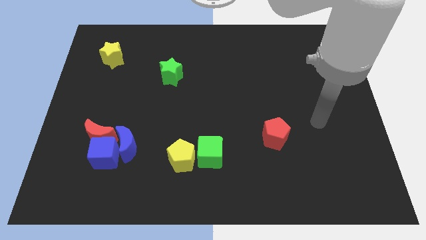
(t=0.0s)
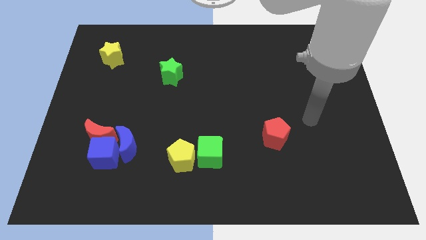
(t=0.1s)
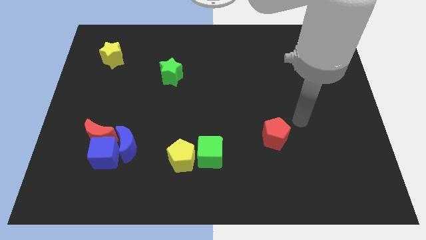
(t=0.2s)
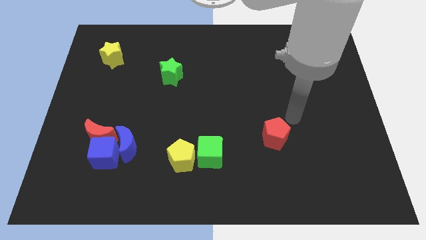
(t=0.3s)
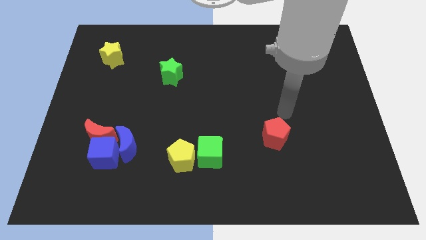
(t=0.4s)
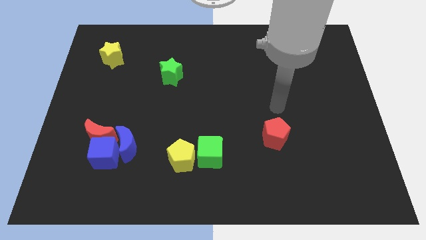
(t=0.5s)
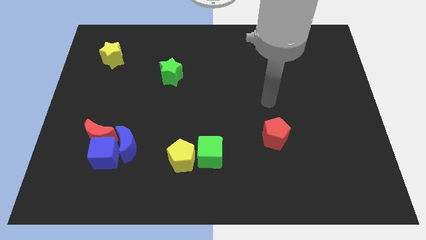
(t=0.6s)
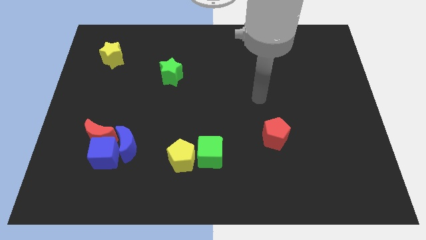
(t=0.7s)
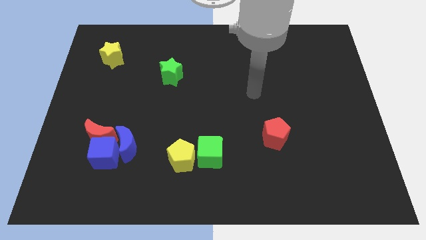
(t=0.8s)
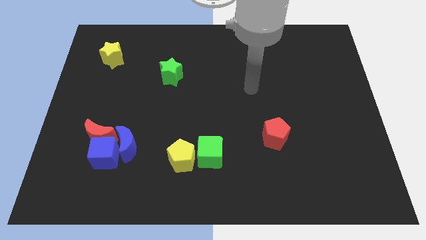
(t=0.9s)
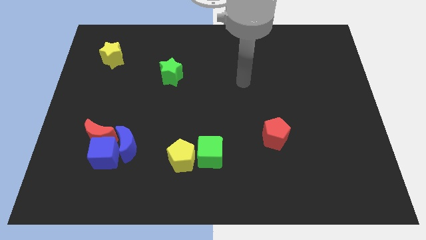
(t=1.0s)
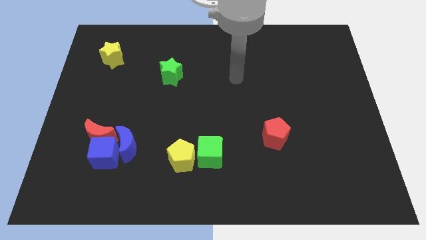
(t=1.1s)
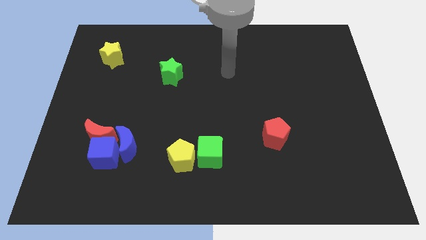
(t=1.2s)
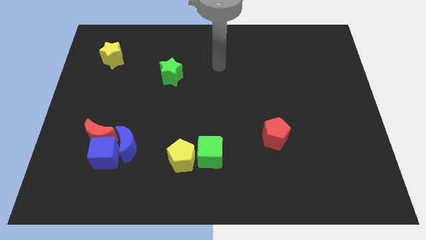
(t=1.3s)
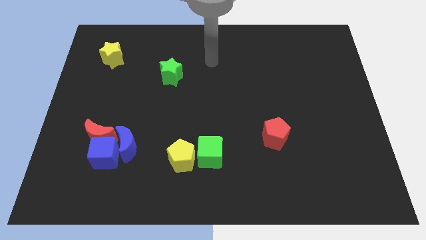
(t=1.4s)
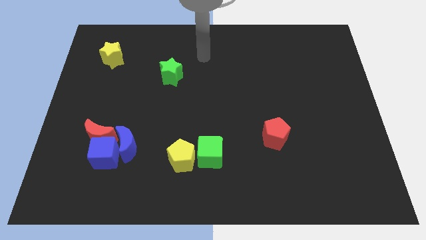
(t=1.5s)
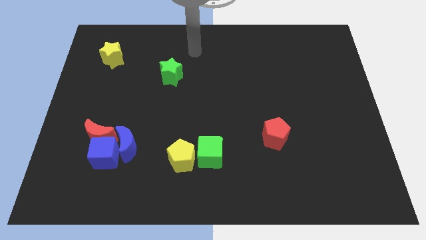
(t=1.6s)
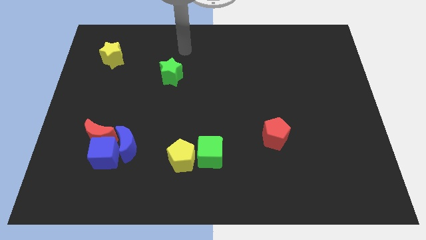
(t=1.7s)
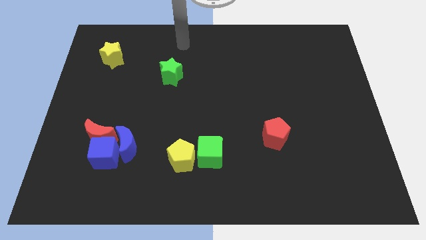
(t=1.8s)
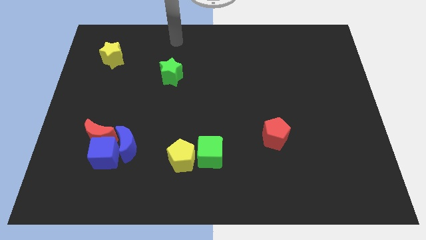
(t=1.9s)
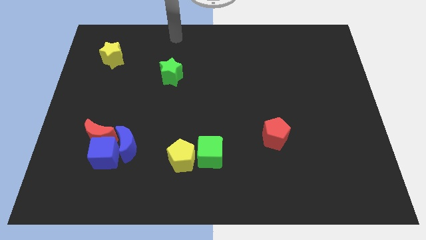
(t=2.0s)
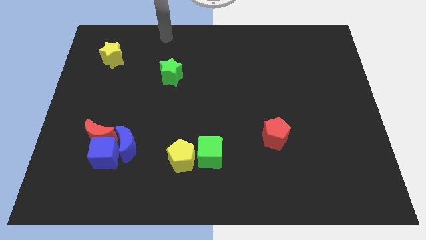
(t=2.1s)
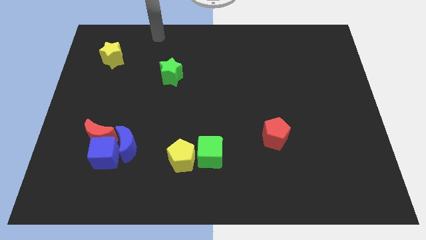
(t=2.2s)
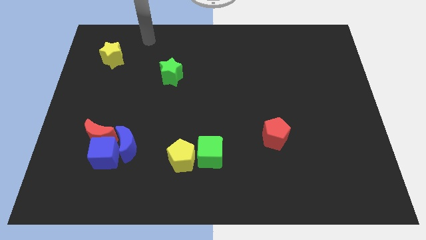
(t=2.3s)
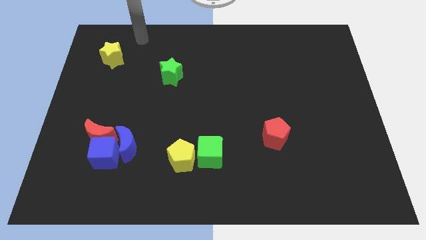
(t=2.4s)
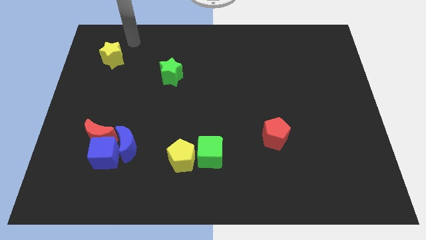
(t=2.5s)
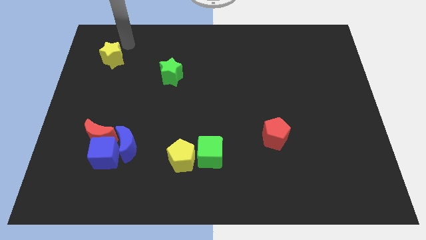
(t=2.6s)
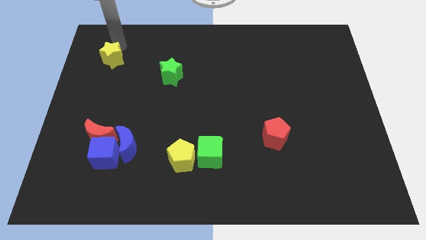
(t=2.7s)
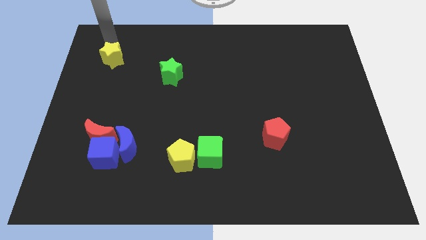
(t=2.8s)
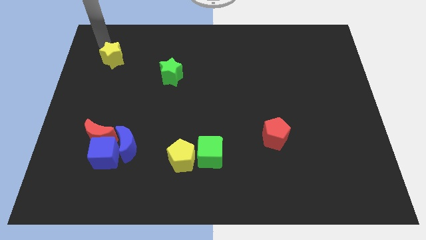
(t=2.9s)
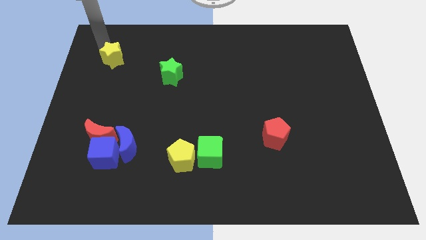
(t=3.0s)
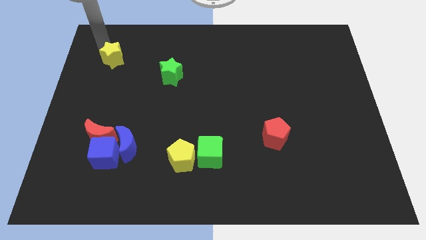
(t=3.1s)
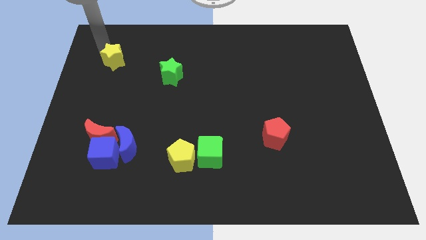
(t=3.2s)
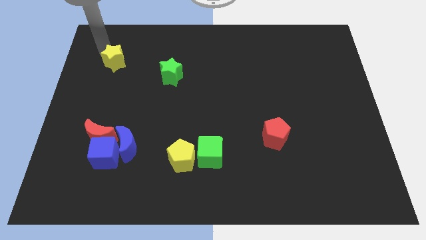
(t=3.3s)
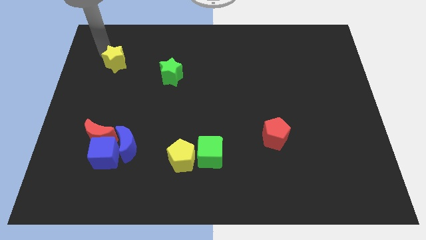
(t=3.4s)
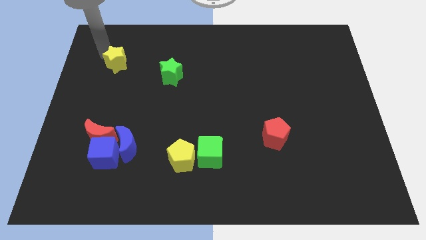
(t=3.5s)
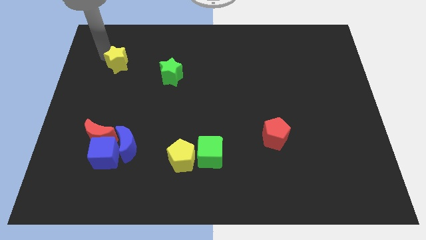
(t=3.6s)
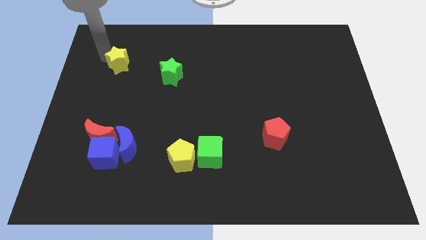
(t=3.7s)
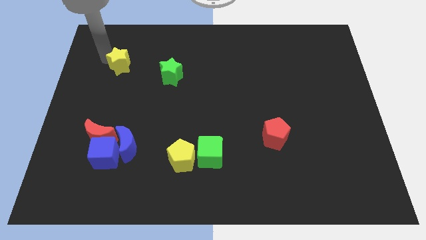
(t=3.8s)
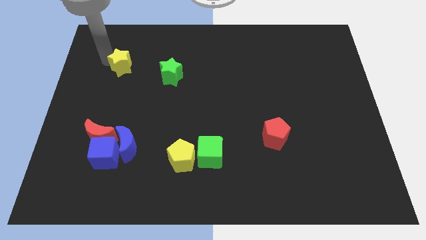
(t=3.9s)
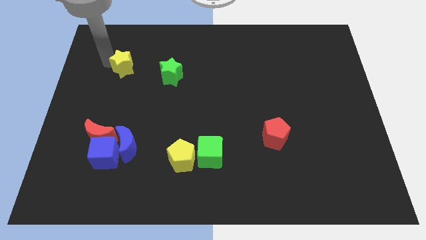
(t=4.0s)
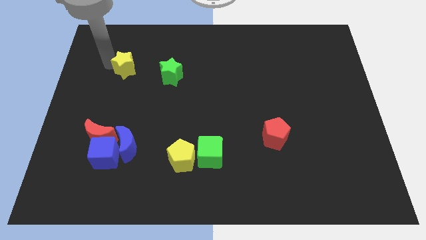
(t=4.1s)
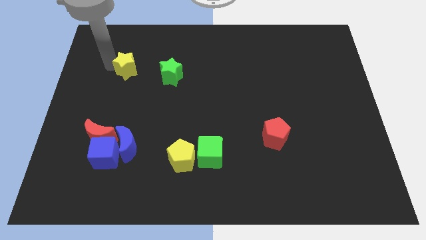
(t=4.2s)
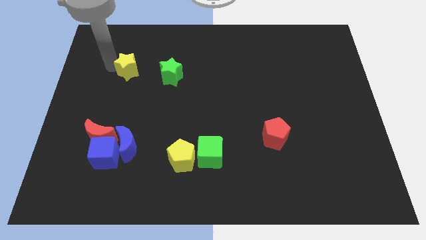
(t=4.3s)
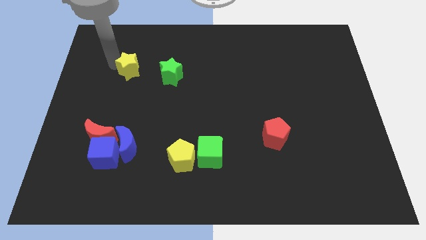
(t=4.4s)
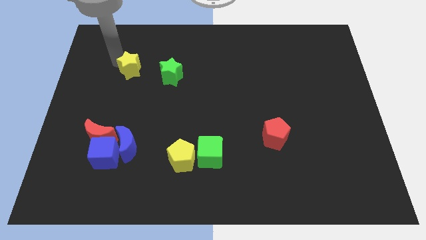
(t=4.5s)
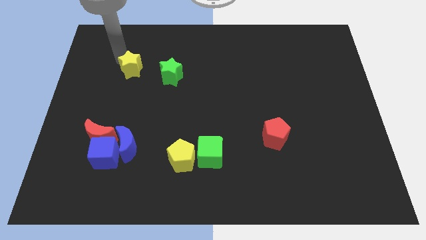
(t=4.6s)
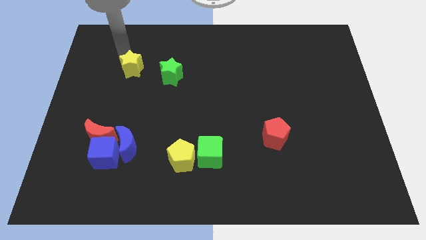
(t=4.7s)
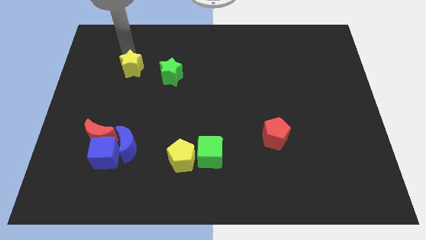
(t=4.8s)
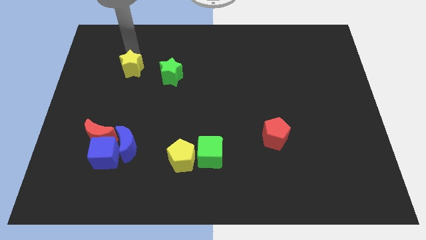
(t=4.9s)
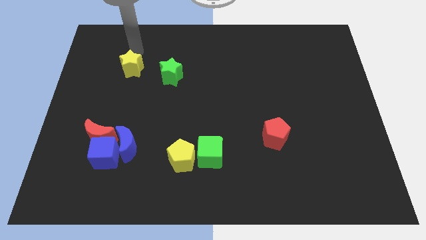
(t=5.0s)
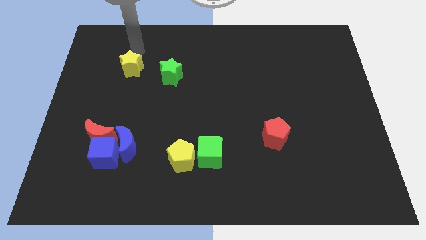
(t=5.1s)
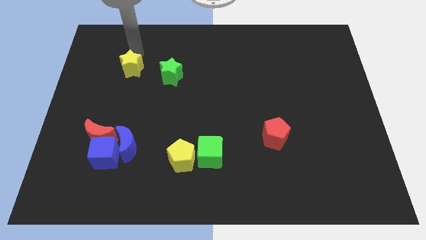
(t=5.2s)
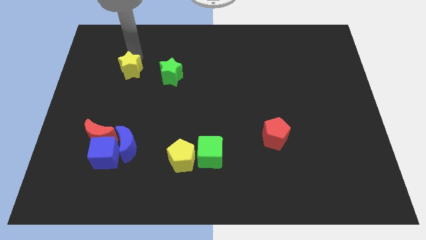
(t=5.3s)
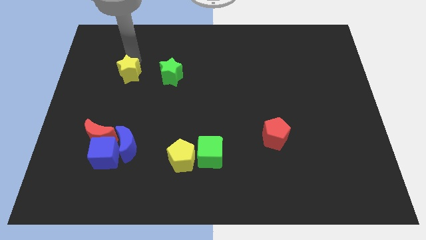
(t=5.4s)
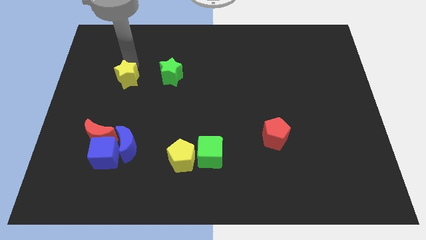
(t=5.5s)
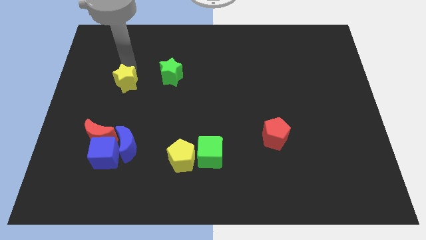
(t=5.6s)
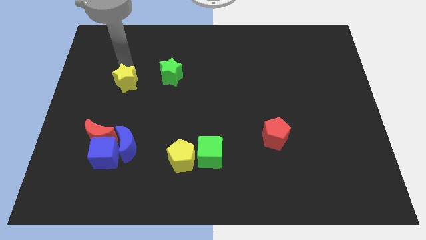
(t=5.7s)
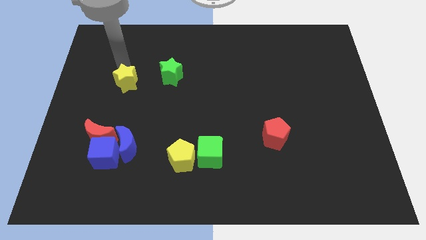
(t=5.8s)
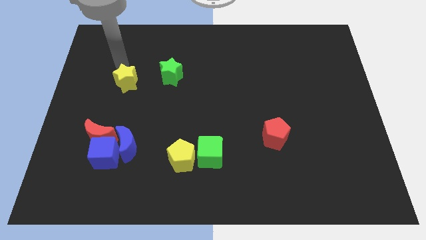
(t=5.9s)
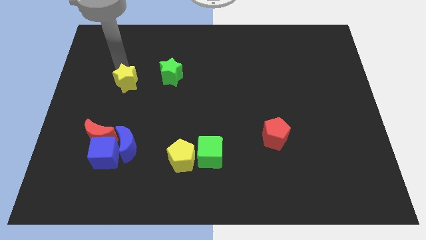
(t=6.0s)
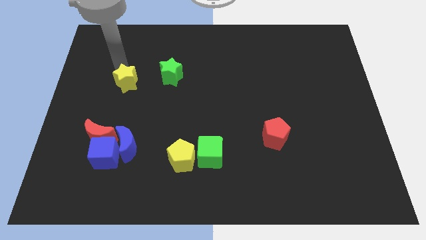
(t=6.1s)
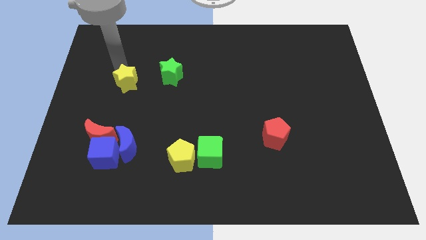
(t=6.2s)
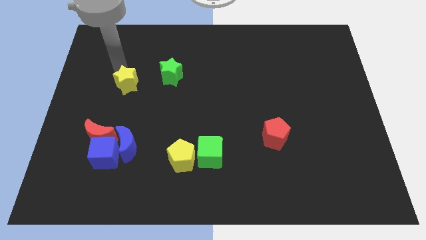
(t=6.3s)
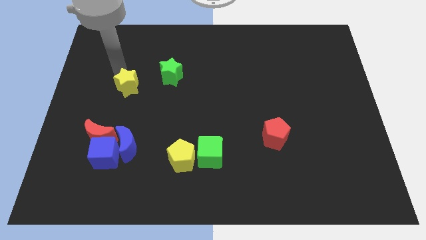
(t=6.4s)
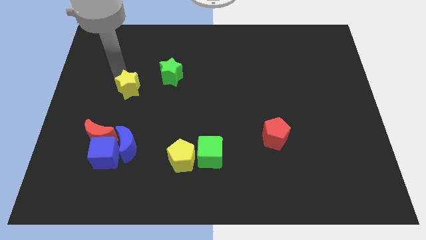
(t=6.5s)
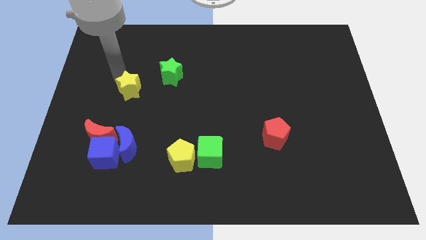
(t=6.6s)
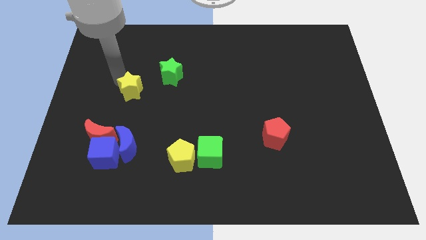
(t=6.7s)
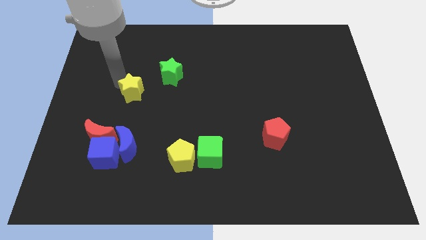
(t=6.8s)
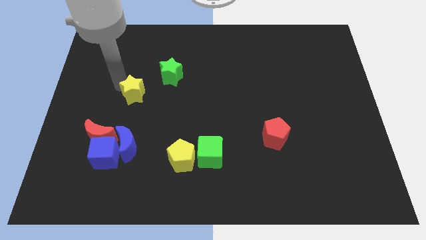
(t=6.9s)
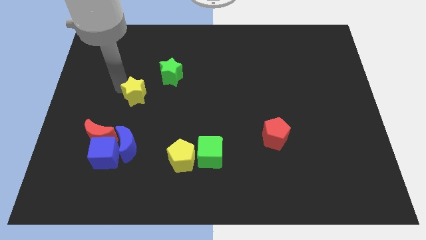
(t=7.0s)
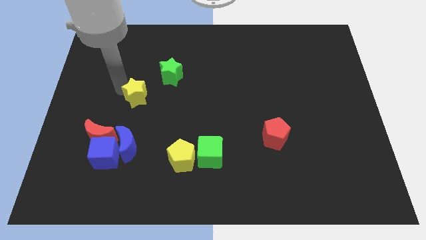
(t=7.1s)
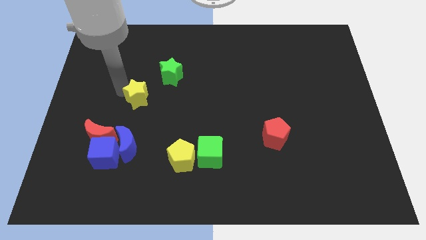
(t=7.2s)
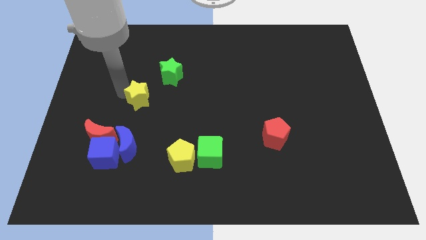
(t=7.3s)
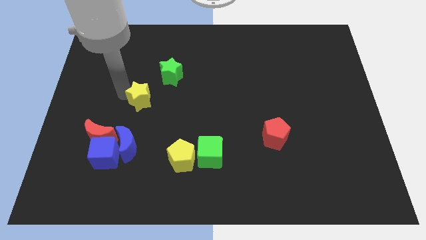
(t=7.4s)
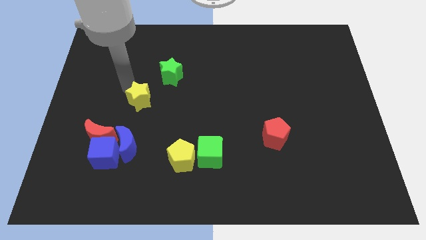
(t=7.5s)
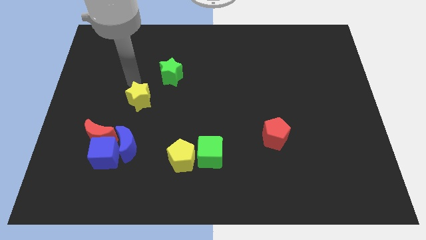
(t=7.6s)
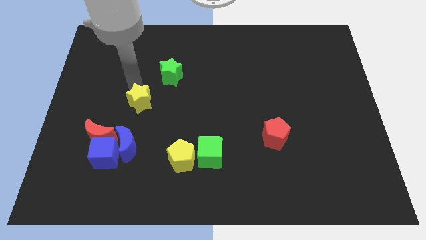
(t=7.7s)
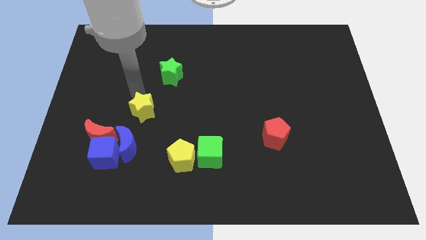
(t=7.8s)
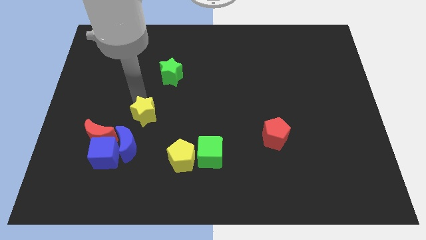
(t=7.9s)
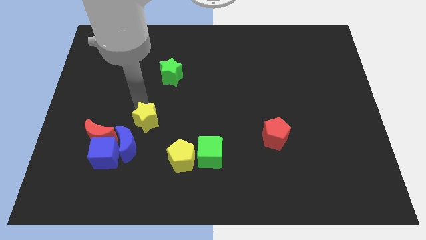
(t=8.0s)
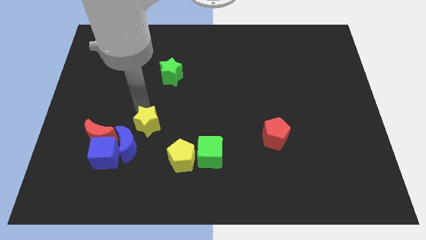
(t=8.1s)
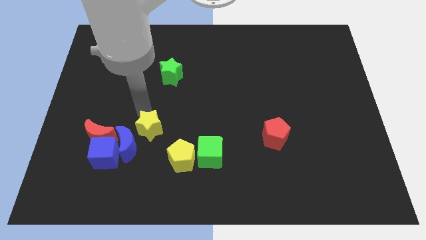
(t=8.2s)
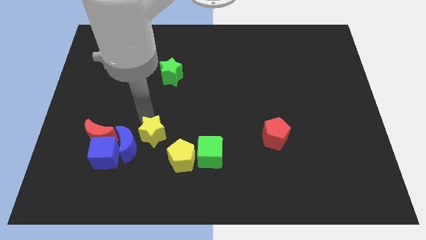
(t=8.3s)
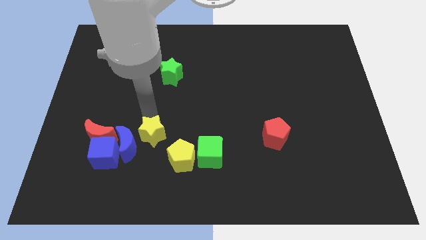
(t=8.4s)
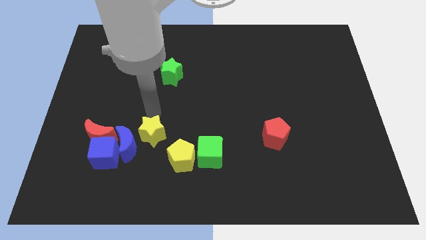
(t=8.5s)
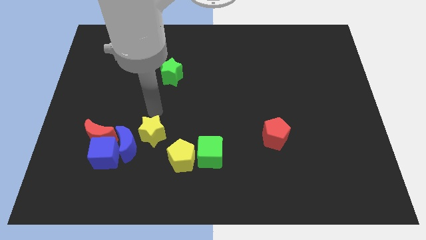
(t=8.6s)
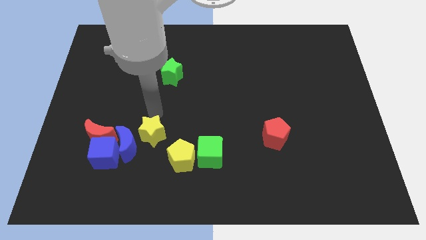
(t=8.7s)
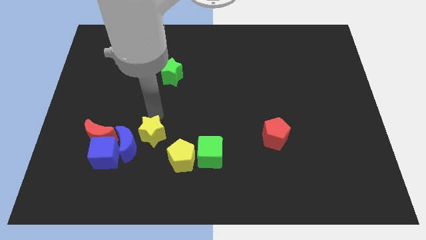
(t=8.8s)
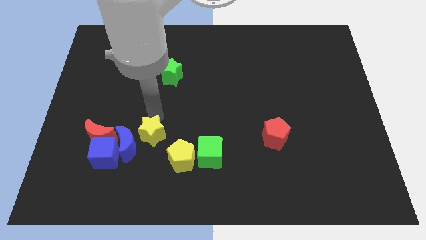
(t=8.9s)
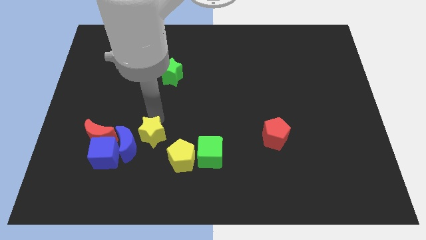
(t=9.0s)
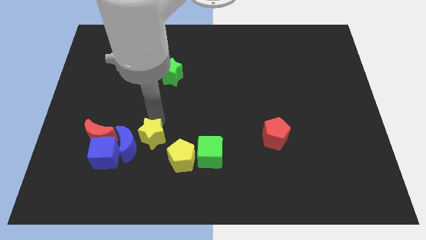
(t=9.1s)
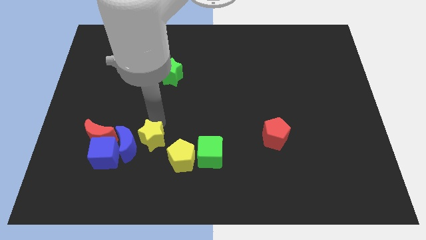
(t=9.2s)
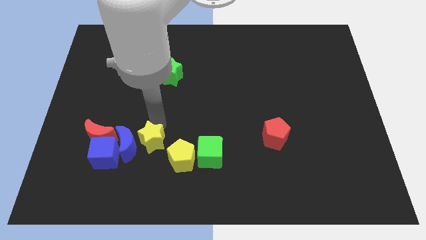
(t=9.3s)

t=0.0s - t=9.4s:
slide the yellow star diagonally down and to the right of the blue moon
